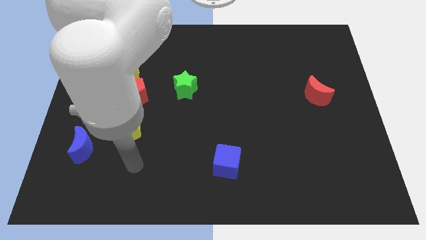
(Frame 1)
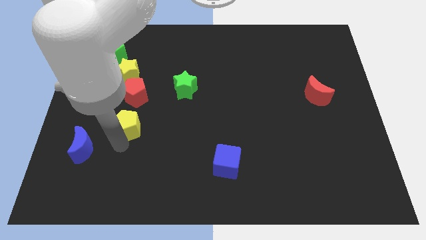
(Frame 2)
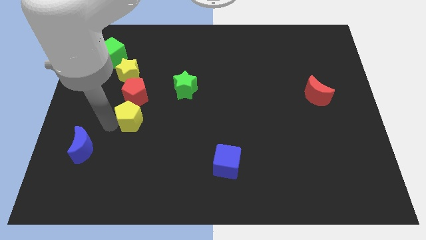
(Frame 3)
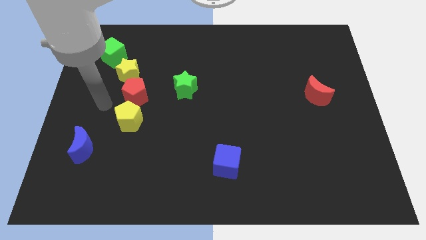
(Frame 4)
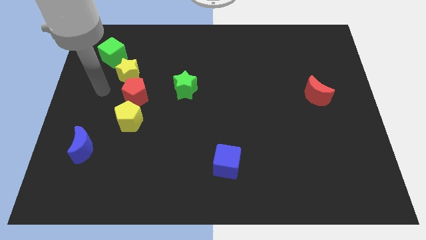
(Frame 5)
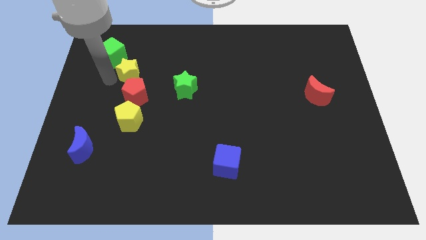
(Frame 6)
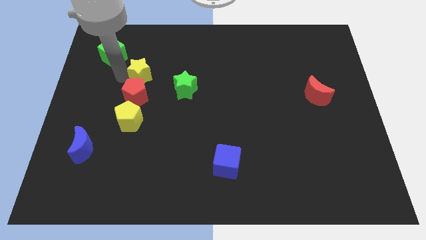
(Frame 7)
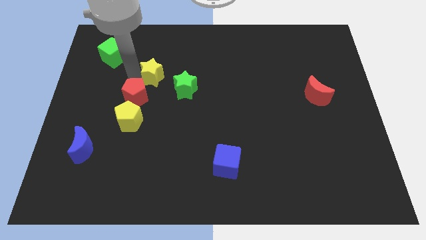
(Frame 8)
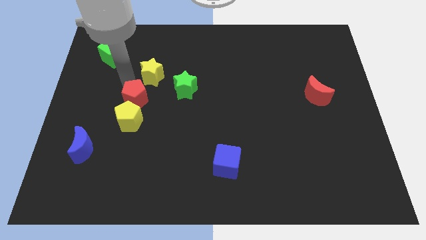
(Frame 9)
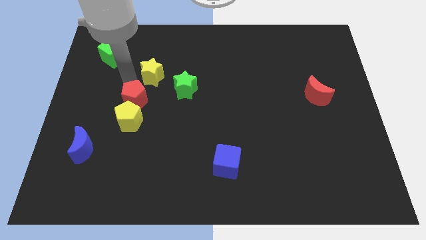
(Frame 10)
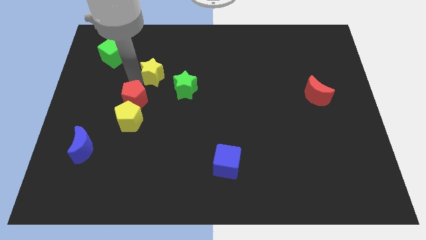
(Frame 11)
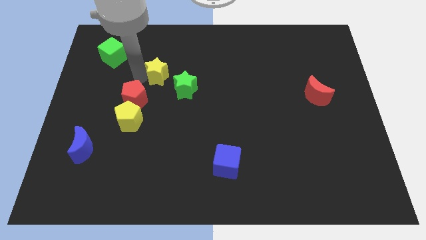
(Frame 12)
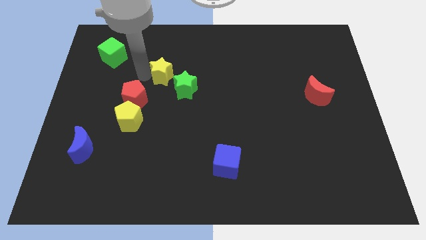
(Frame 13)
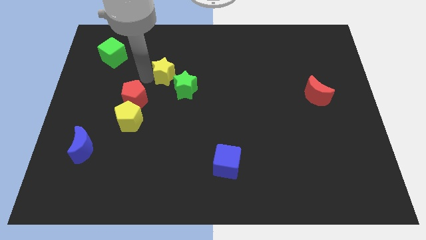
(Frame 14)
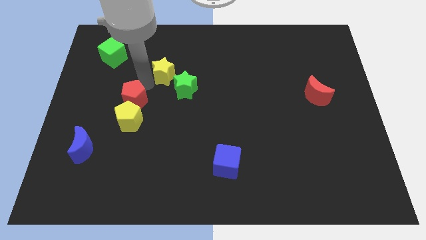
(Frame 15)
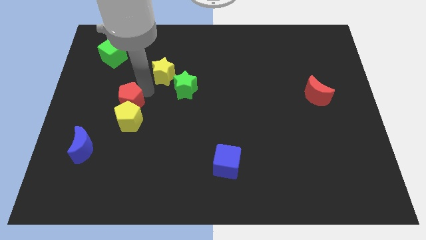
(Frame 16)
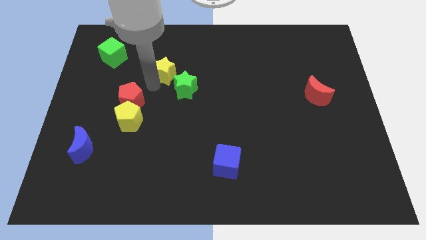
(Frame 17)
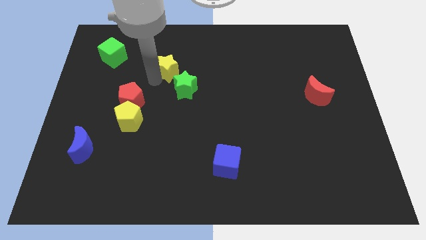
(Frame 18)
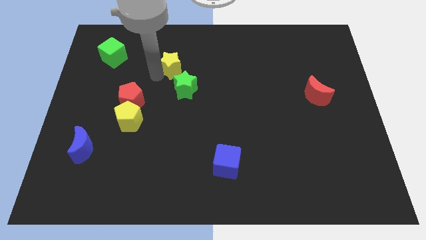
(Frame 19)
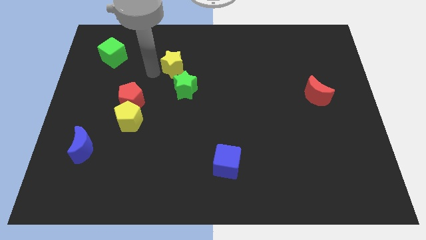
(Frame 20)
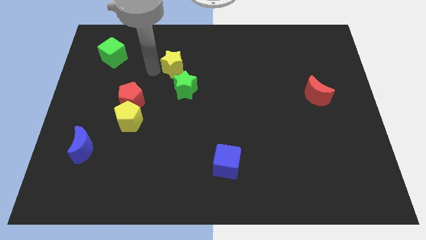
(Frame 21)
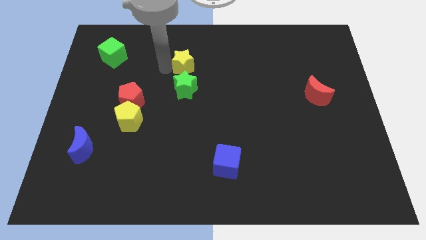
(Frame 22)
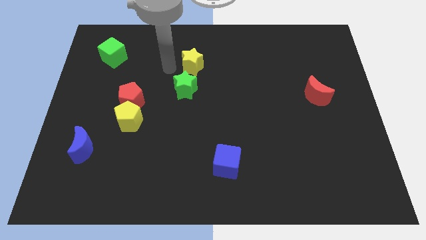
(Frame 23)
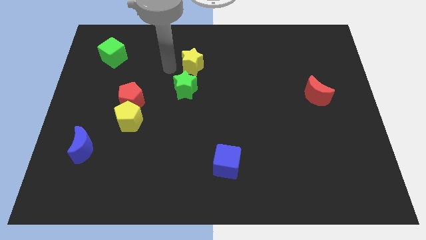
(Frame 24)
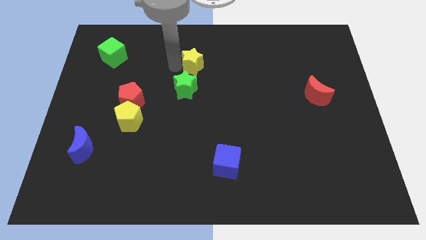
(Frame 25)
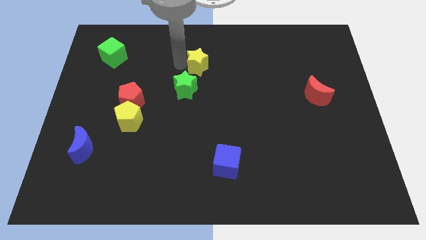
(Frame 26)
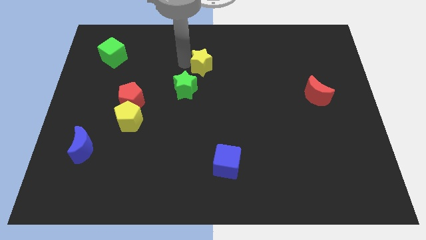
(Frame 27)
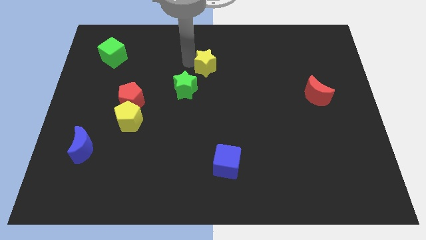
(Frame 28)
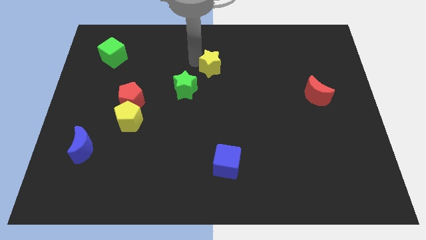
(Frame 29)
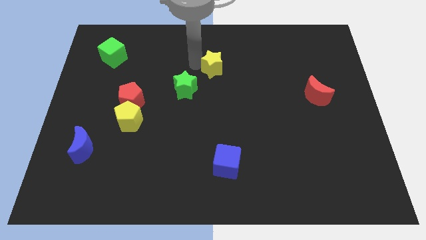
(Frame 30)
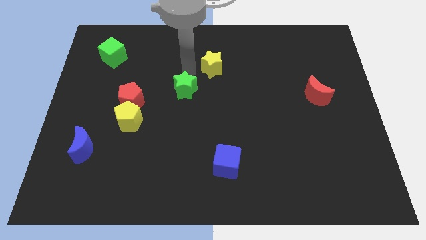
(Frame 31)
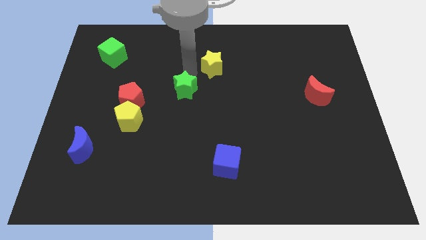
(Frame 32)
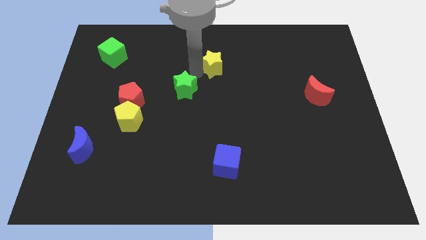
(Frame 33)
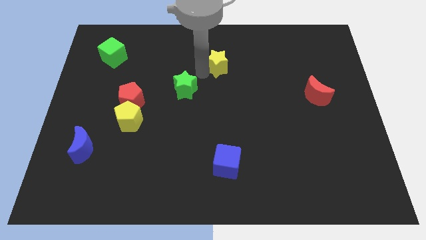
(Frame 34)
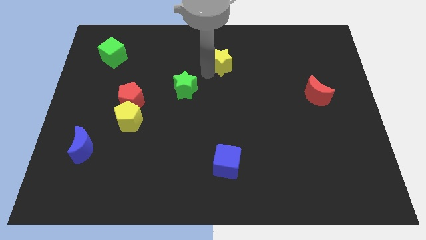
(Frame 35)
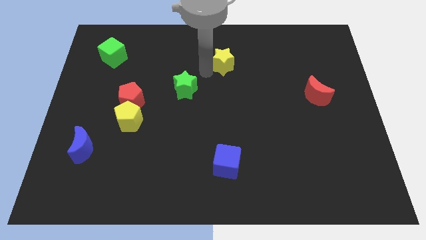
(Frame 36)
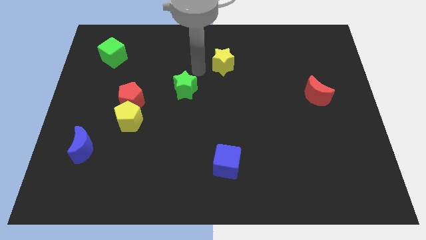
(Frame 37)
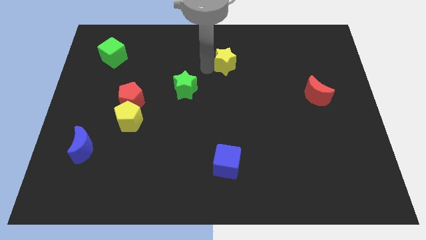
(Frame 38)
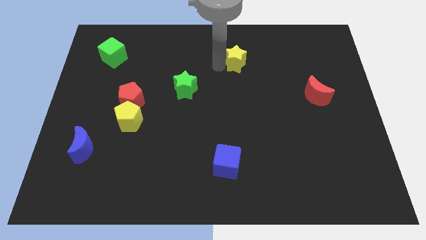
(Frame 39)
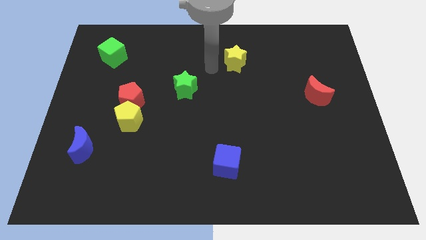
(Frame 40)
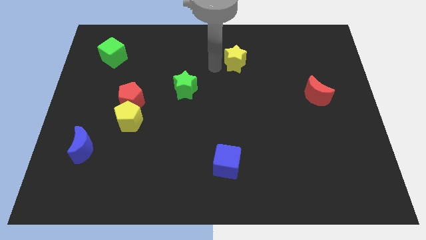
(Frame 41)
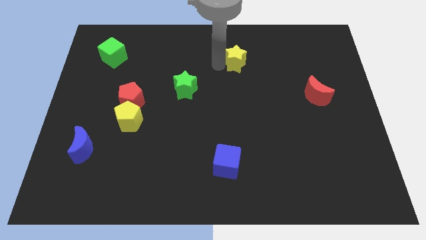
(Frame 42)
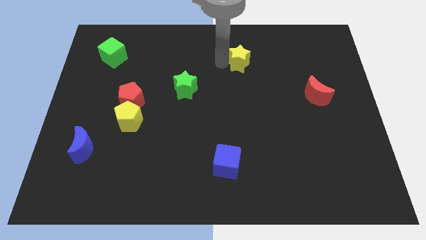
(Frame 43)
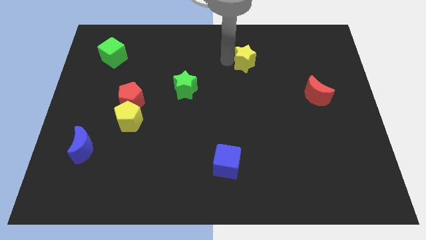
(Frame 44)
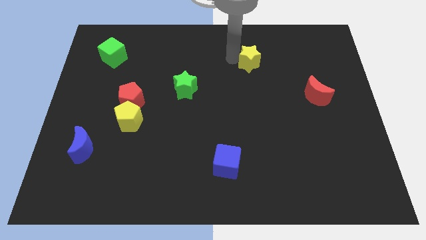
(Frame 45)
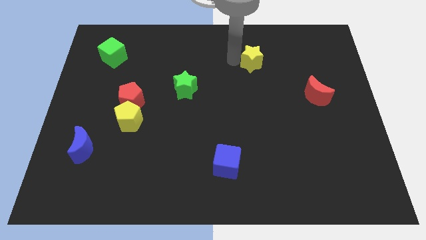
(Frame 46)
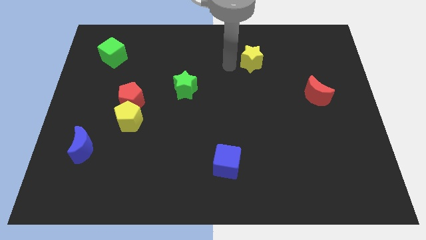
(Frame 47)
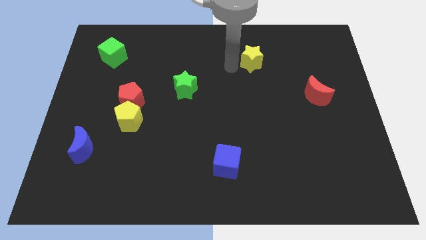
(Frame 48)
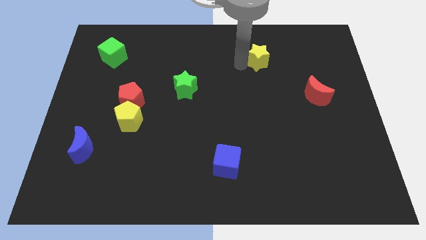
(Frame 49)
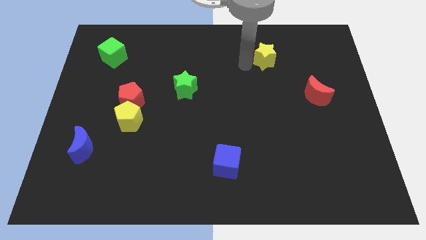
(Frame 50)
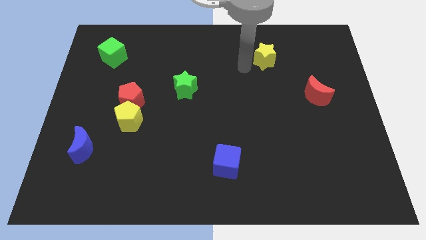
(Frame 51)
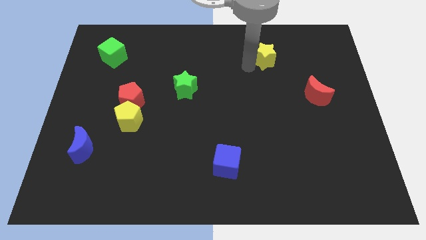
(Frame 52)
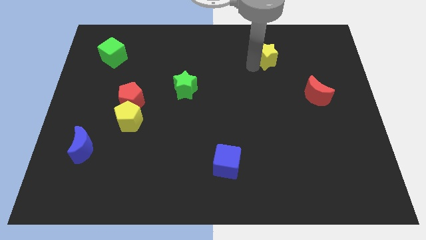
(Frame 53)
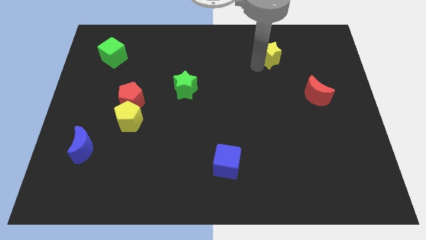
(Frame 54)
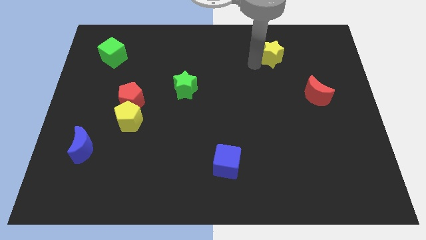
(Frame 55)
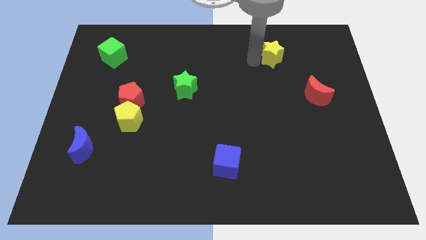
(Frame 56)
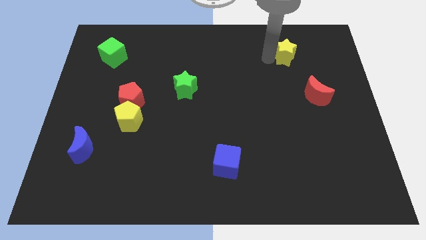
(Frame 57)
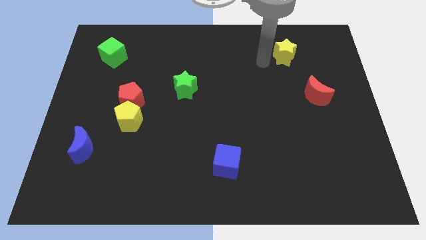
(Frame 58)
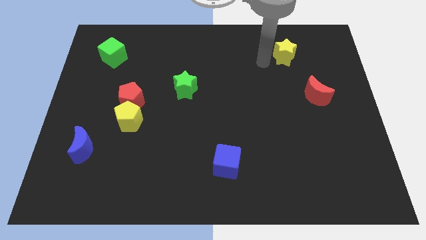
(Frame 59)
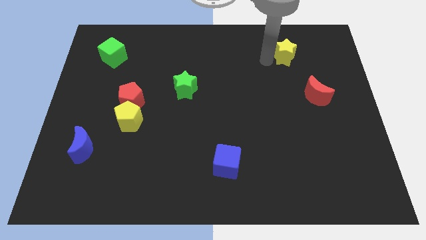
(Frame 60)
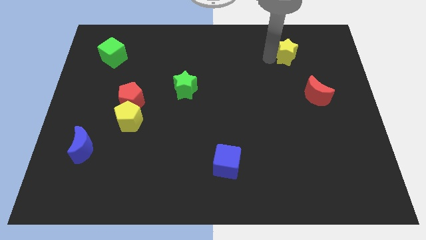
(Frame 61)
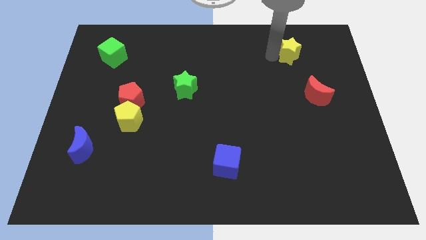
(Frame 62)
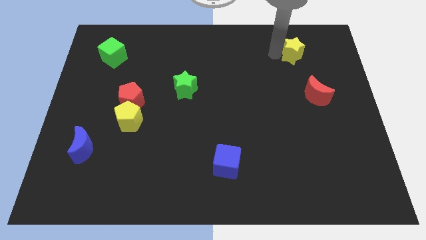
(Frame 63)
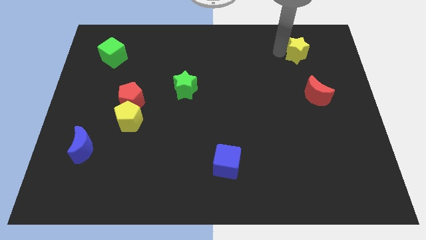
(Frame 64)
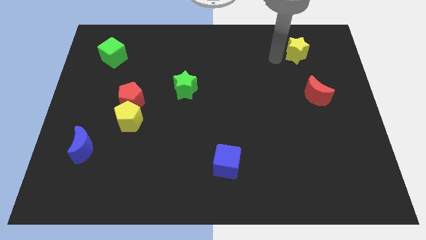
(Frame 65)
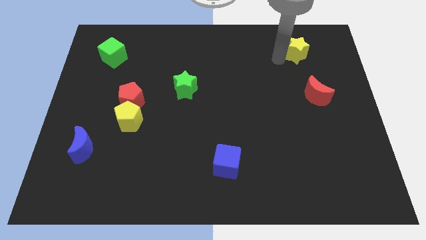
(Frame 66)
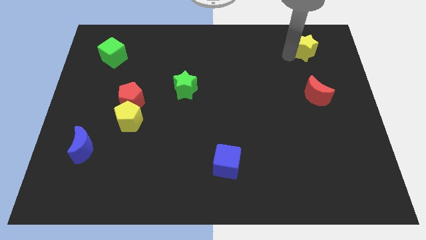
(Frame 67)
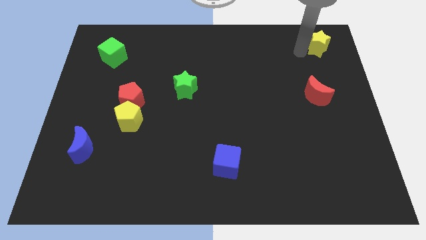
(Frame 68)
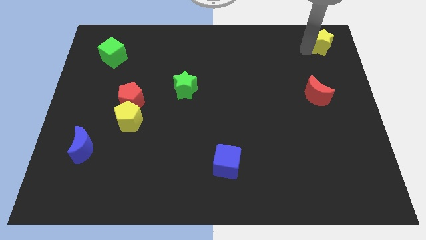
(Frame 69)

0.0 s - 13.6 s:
put the yellow star to the top right of the board
